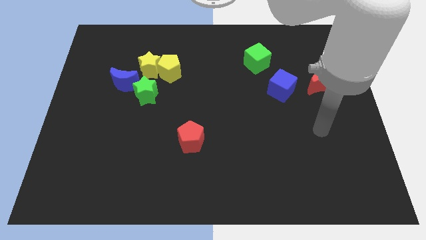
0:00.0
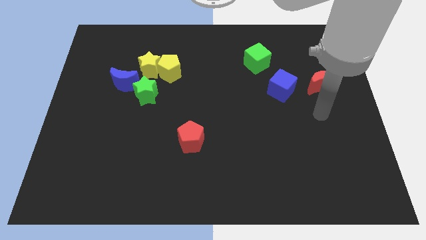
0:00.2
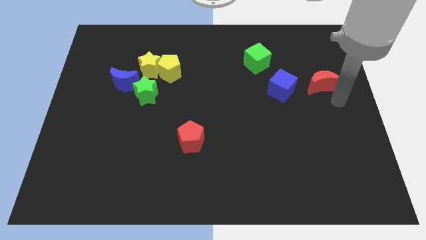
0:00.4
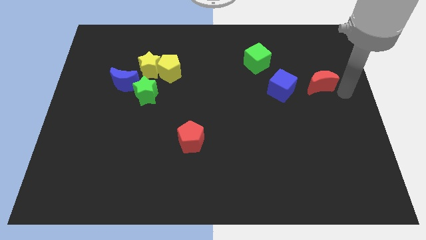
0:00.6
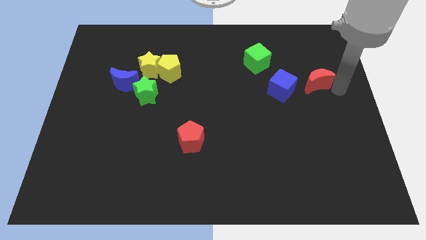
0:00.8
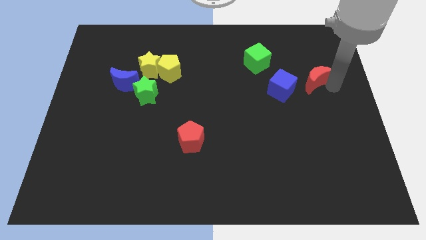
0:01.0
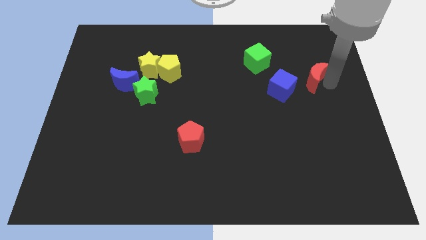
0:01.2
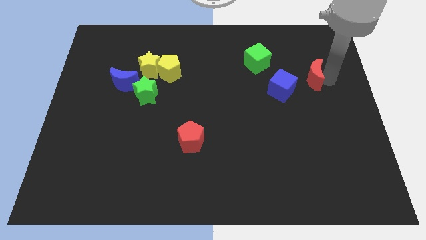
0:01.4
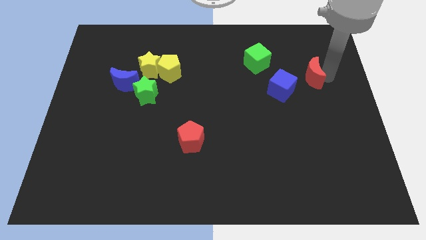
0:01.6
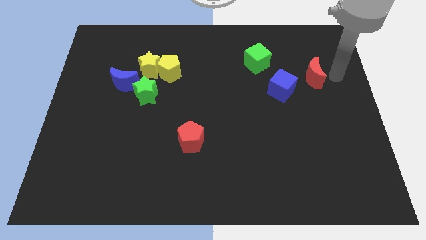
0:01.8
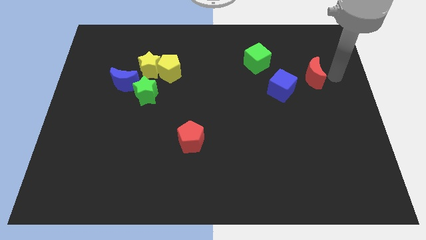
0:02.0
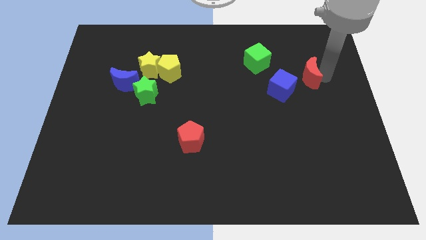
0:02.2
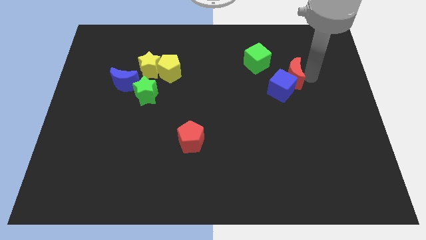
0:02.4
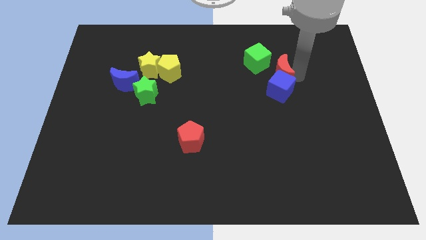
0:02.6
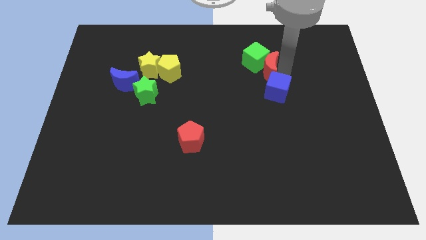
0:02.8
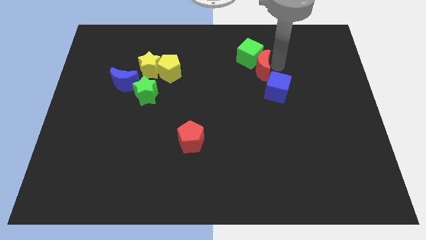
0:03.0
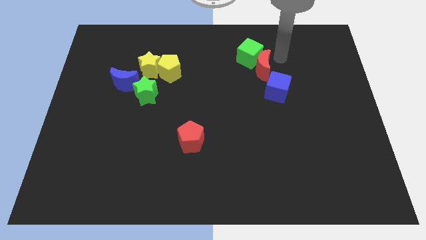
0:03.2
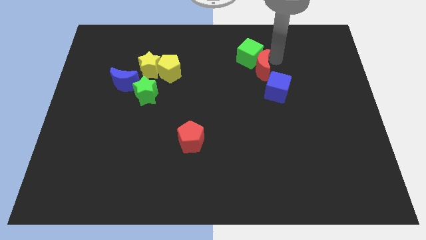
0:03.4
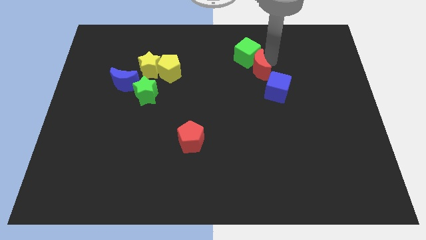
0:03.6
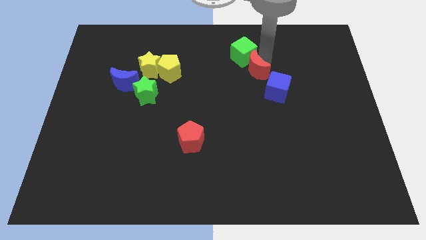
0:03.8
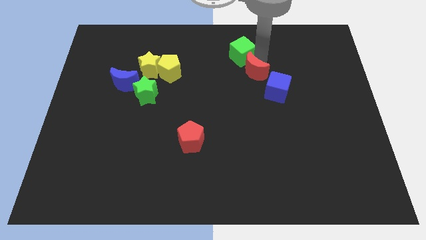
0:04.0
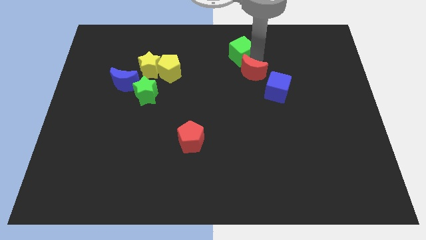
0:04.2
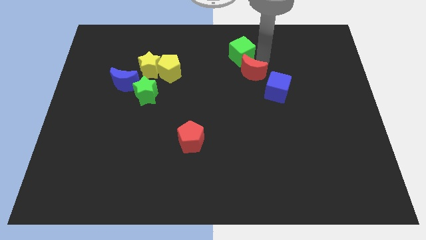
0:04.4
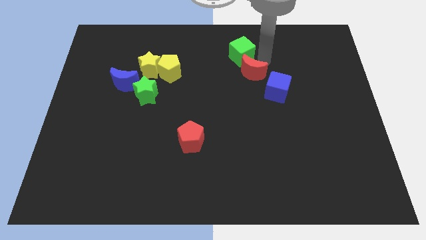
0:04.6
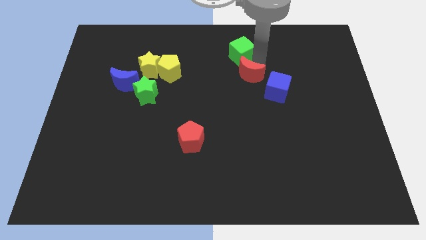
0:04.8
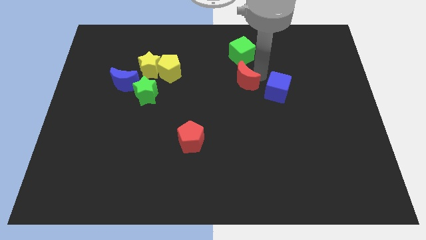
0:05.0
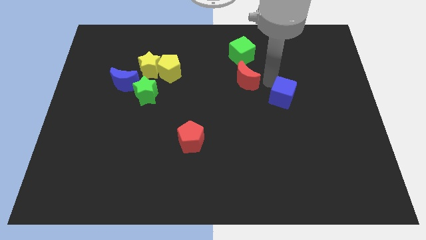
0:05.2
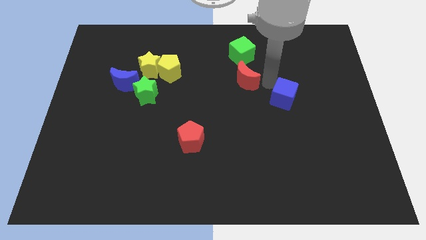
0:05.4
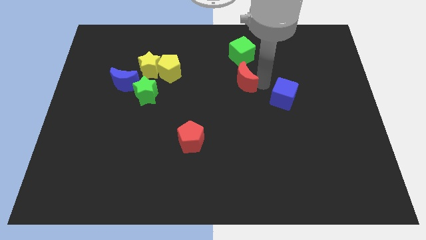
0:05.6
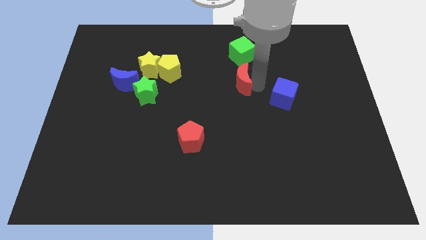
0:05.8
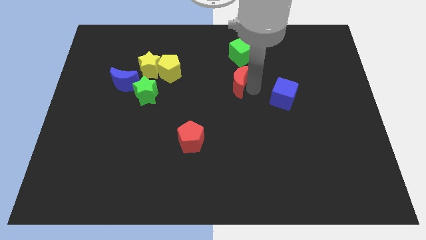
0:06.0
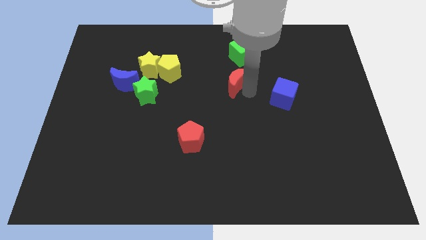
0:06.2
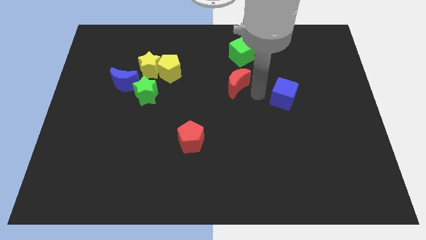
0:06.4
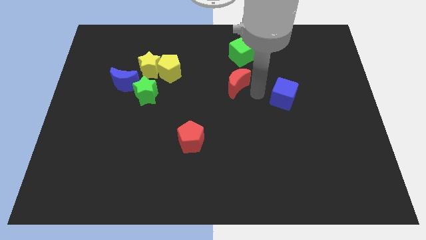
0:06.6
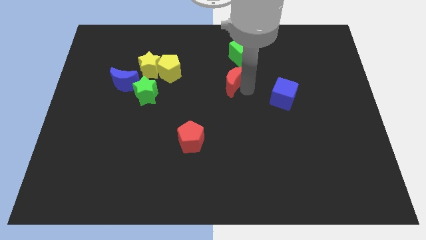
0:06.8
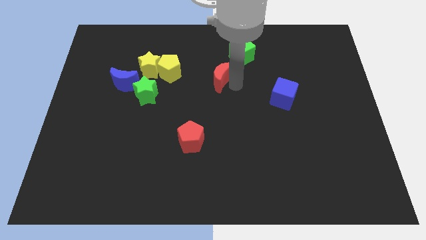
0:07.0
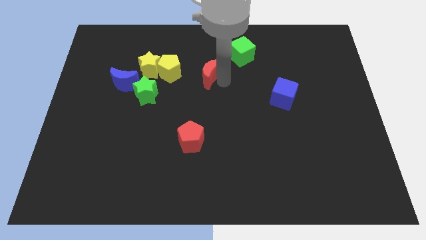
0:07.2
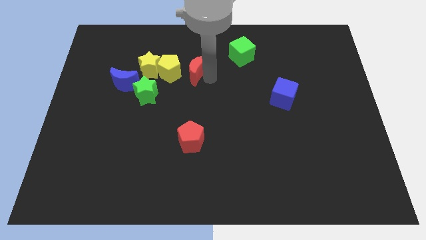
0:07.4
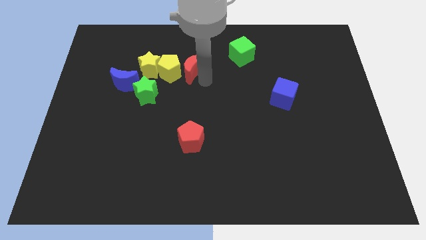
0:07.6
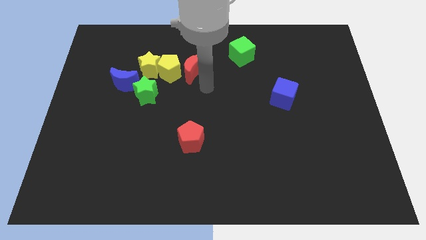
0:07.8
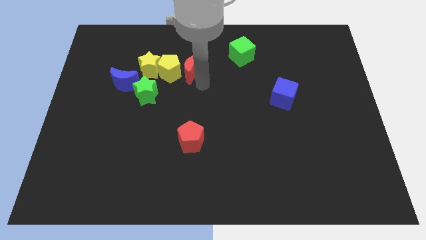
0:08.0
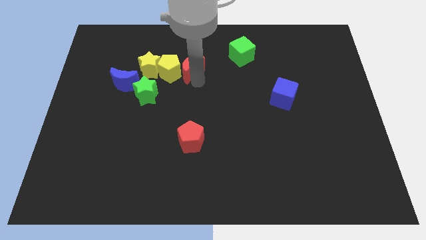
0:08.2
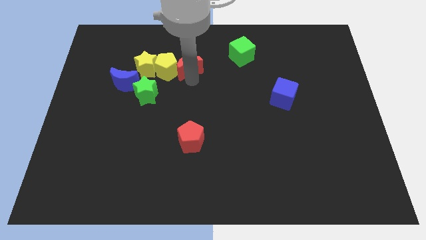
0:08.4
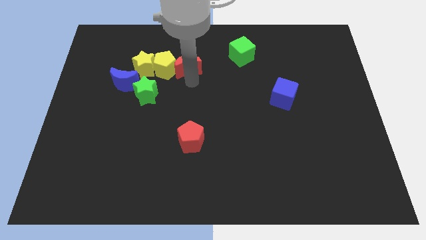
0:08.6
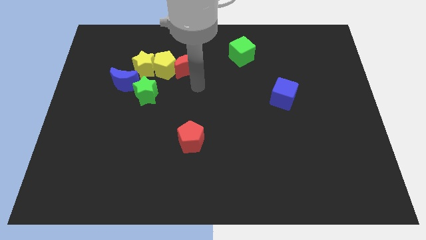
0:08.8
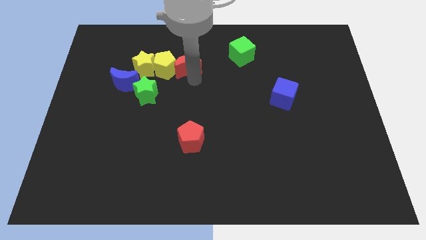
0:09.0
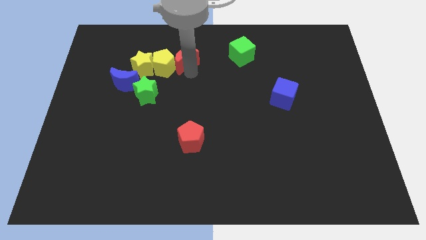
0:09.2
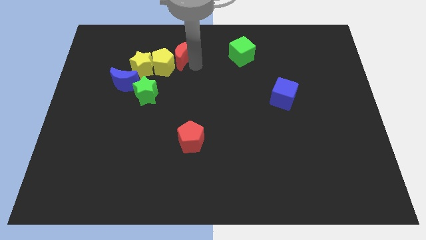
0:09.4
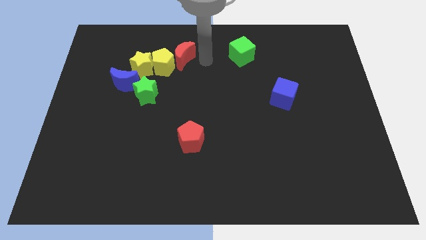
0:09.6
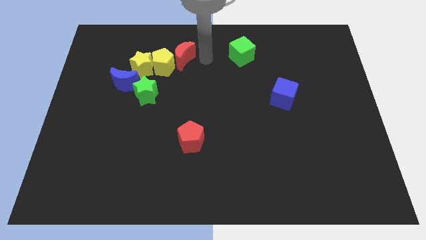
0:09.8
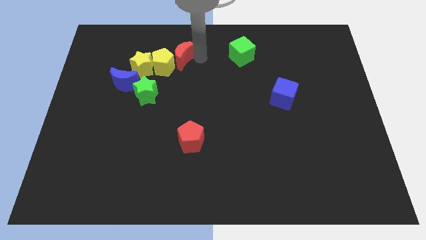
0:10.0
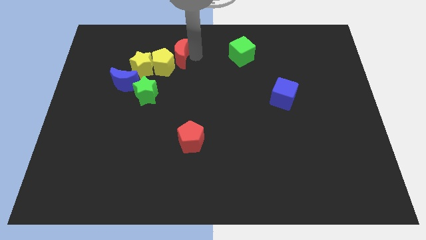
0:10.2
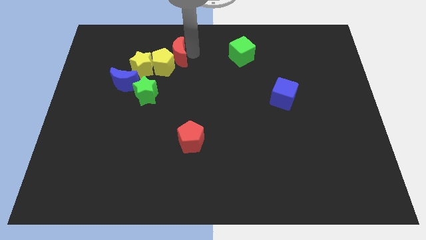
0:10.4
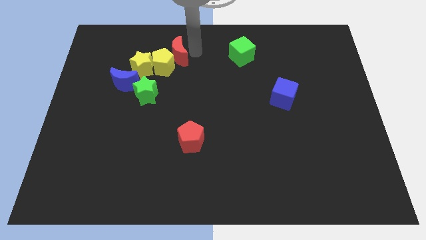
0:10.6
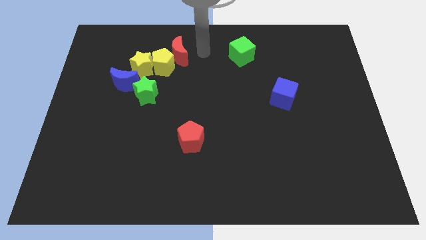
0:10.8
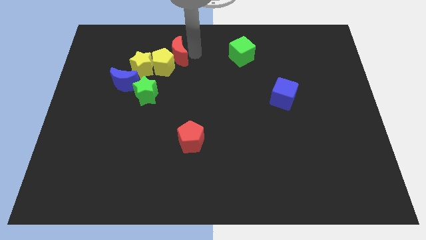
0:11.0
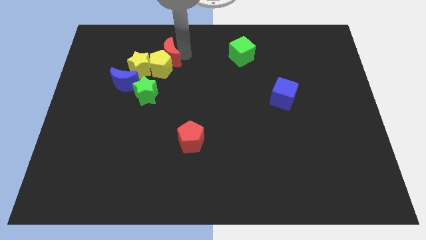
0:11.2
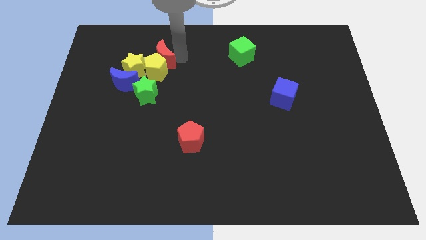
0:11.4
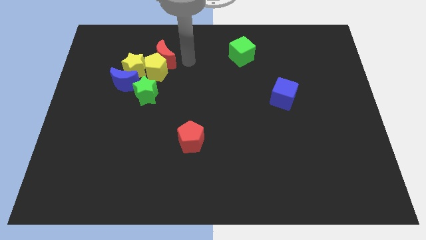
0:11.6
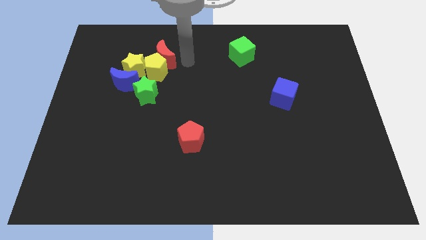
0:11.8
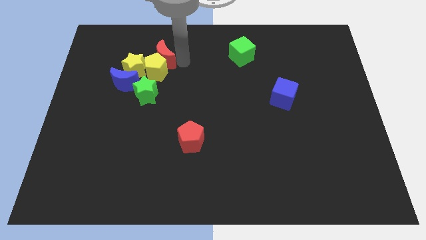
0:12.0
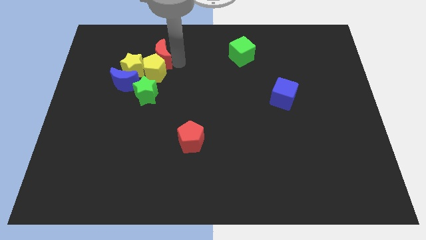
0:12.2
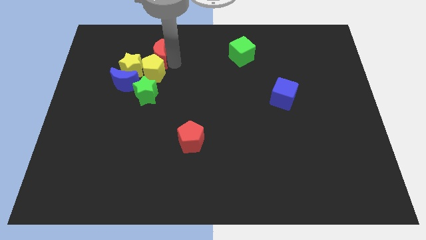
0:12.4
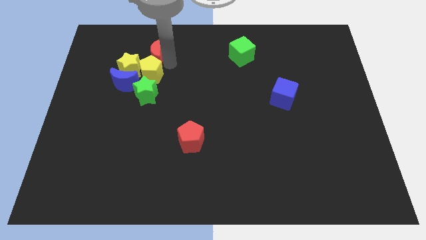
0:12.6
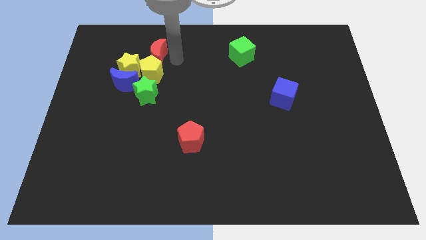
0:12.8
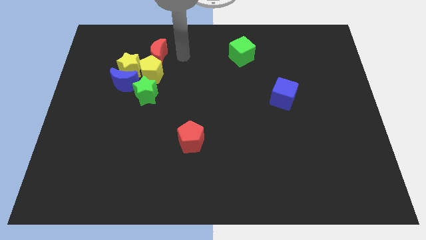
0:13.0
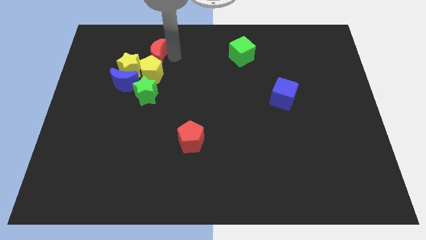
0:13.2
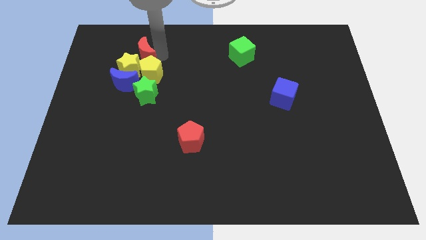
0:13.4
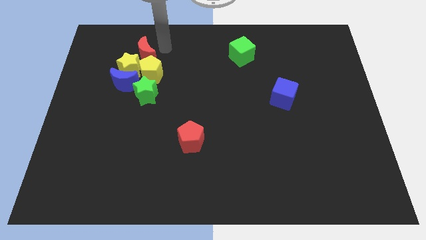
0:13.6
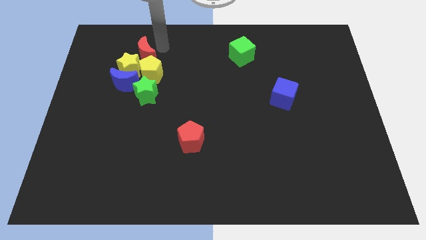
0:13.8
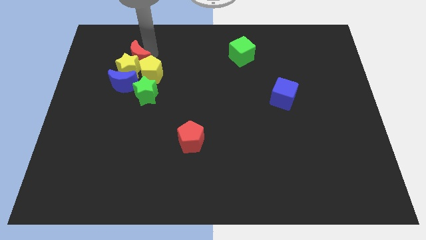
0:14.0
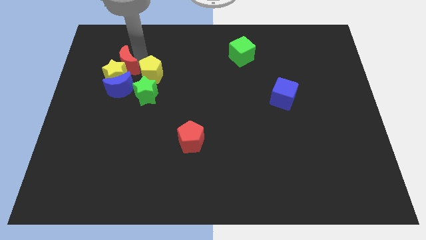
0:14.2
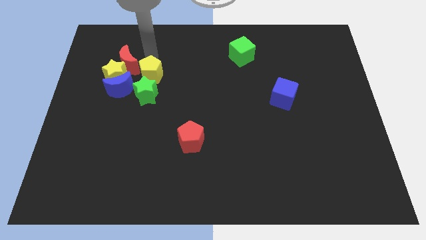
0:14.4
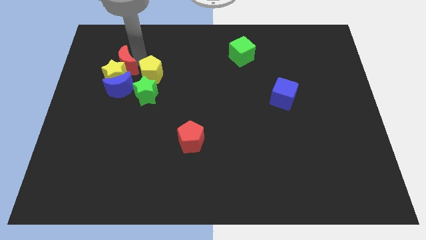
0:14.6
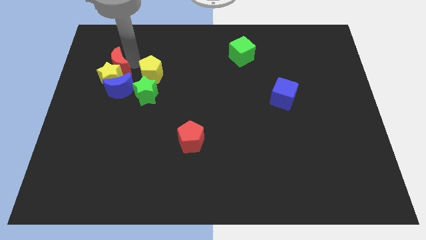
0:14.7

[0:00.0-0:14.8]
slide the red moon diagonally up and to the left of the blue moon
